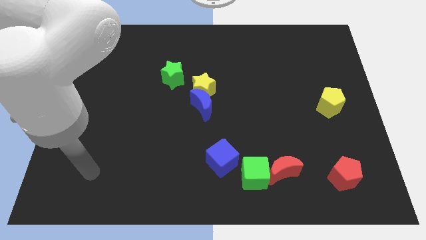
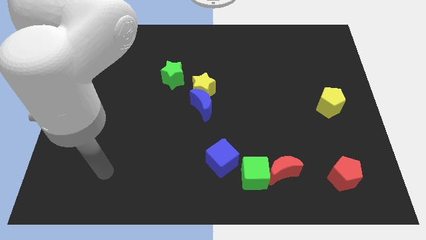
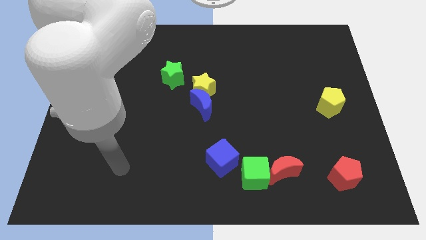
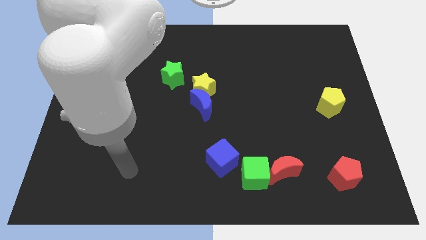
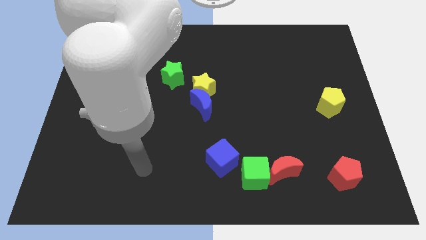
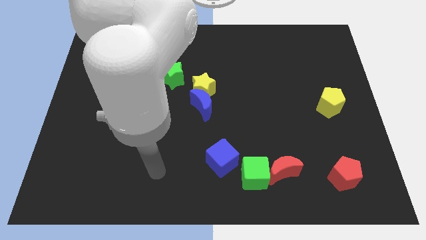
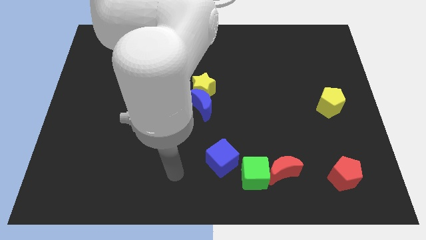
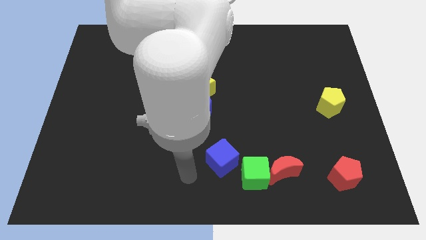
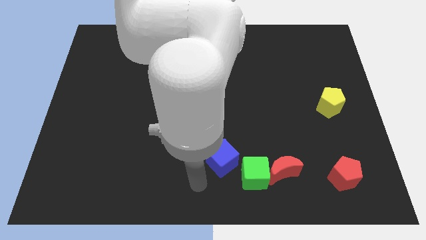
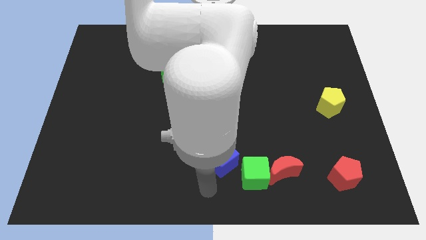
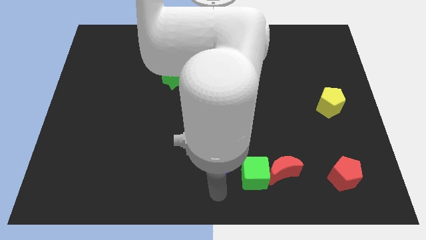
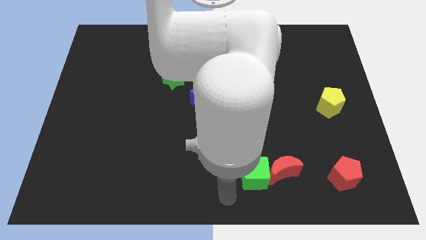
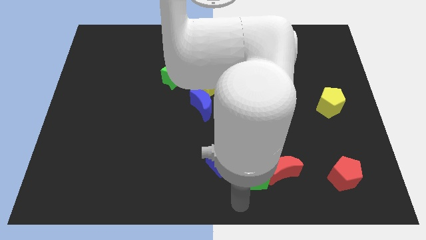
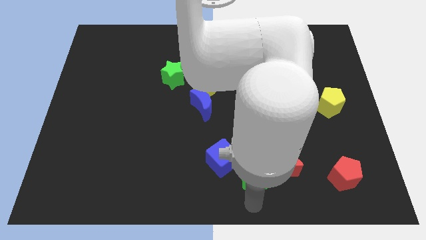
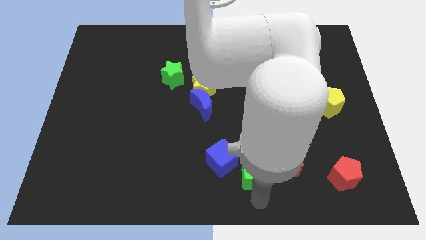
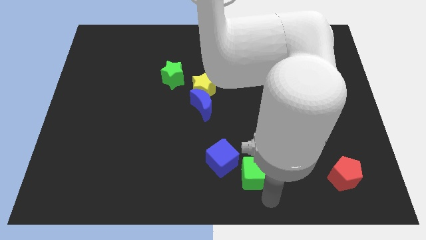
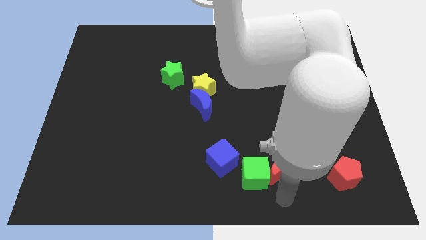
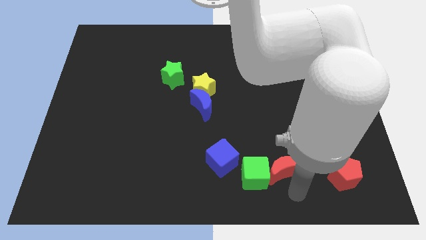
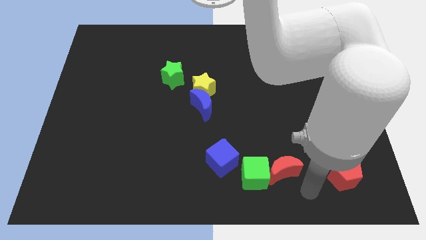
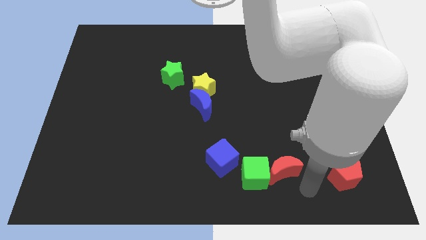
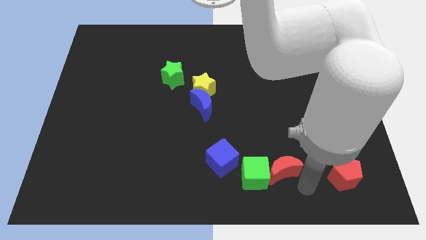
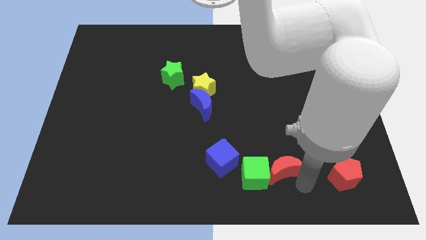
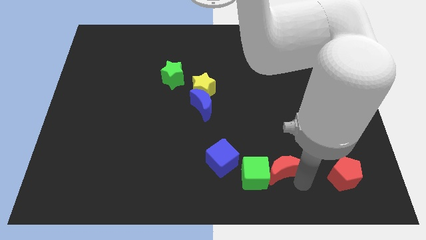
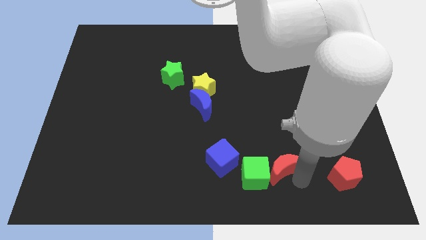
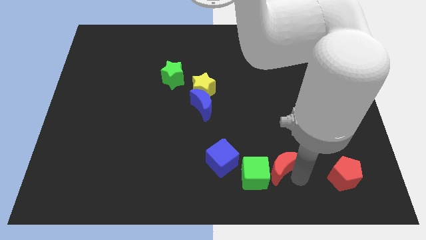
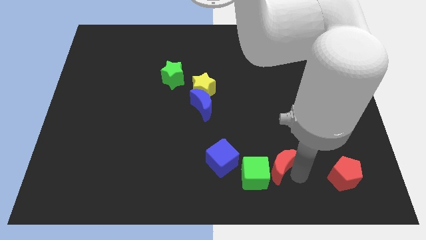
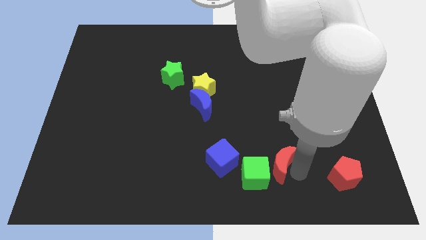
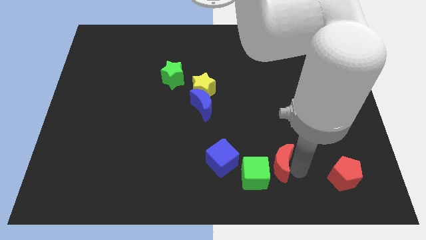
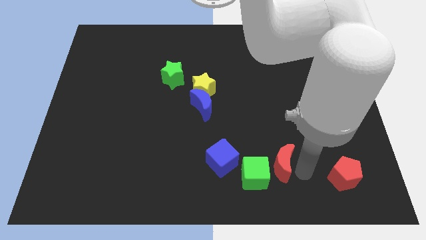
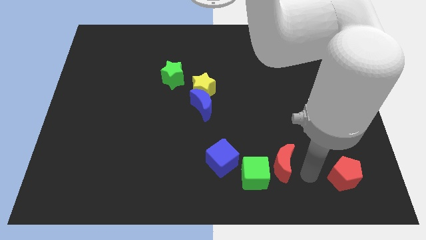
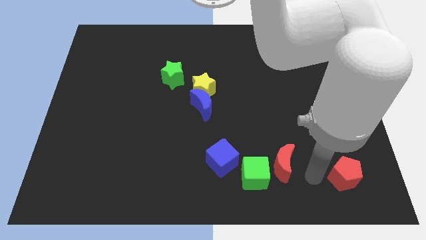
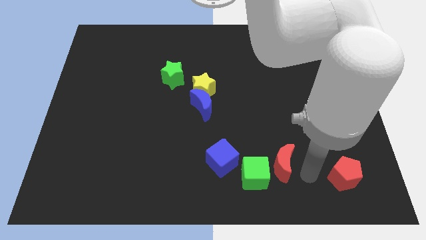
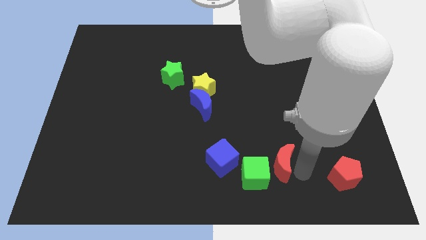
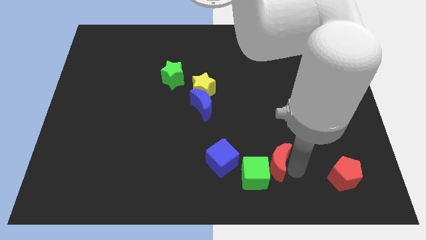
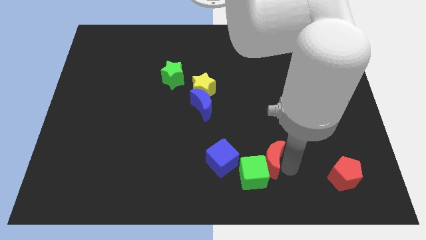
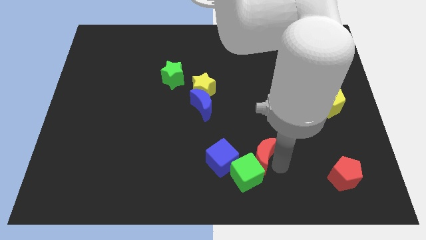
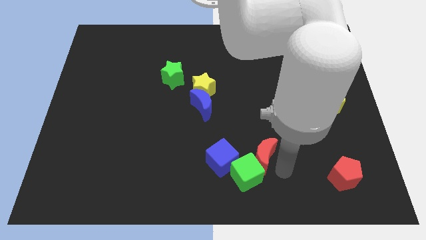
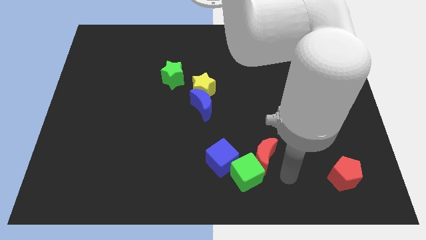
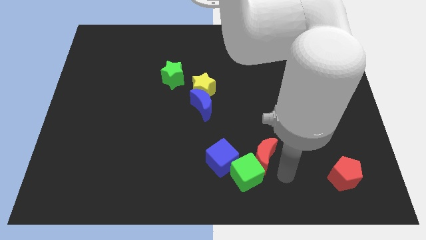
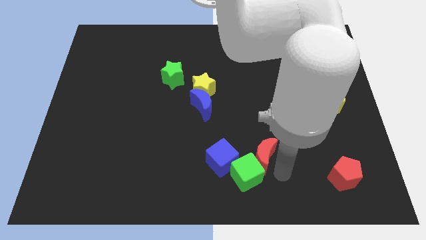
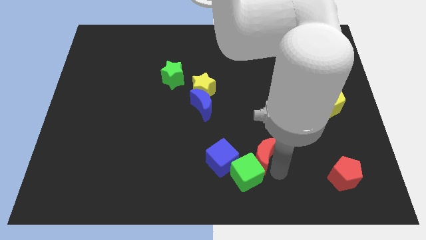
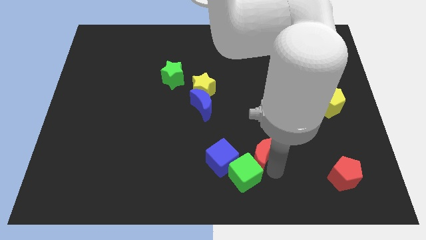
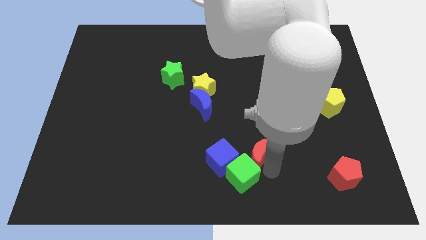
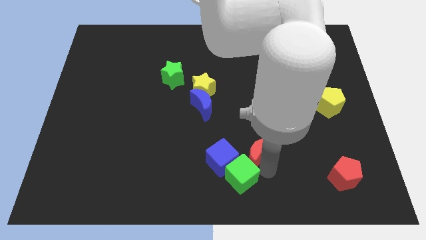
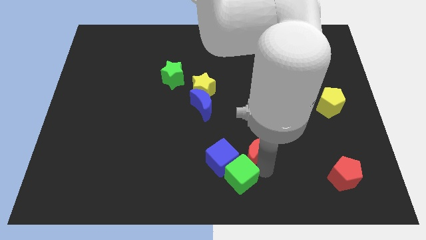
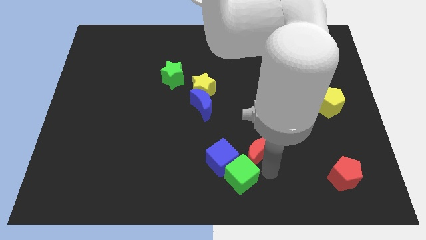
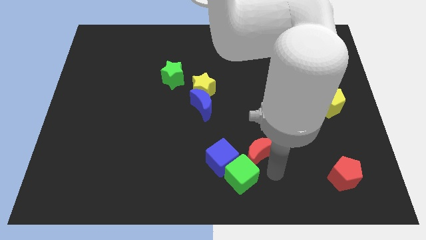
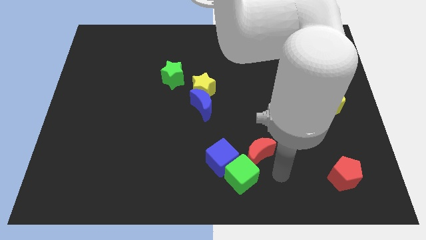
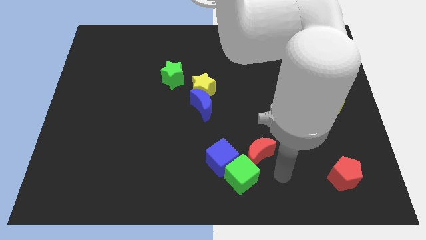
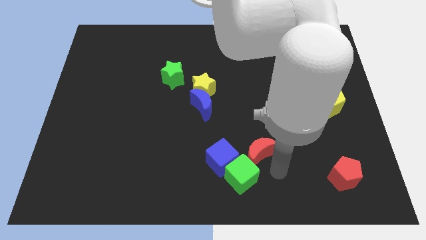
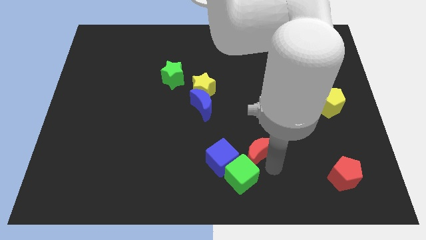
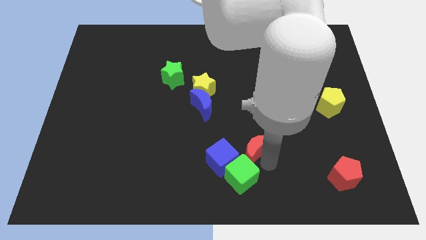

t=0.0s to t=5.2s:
slide the red moon a little bit upwards and left

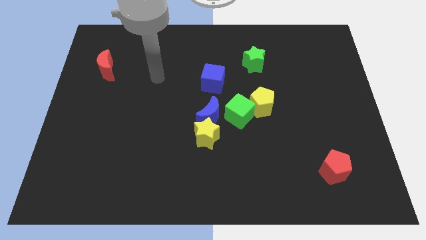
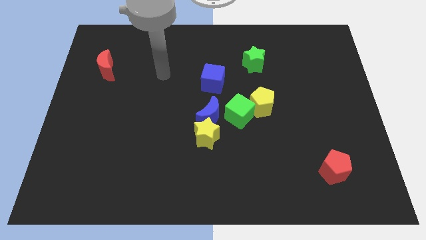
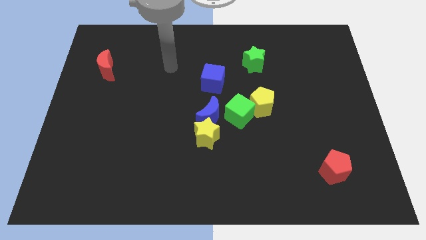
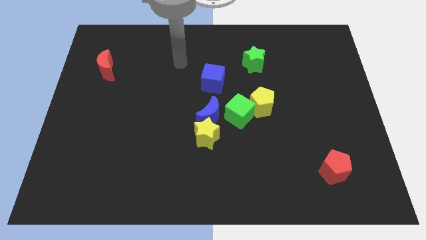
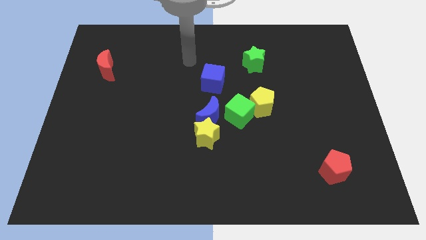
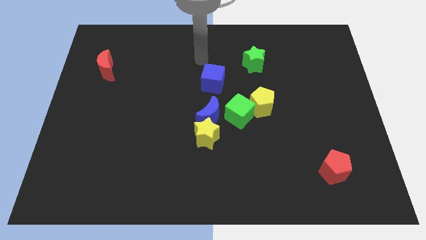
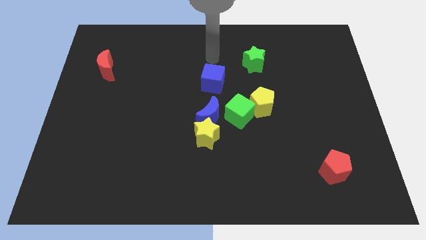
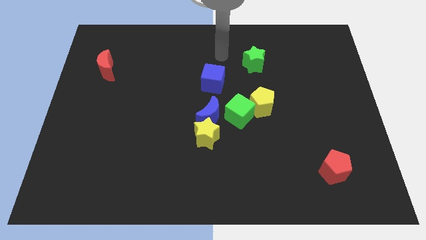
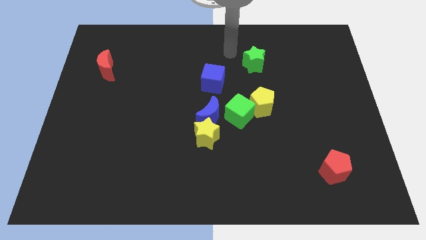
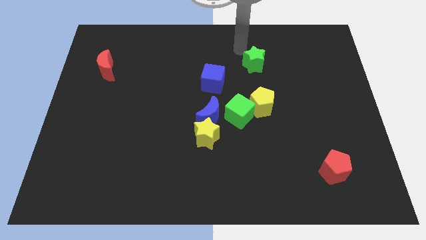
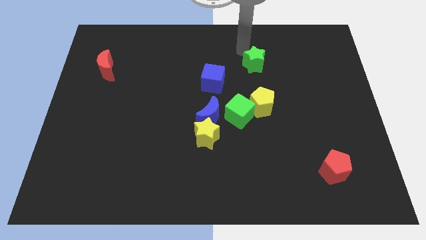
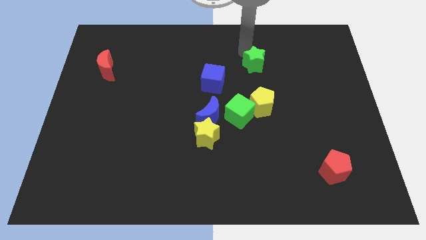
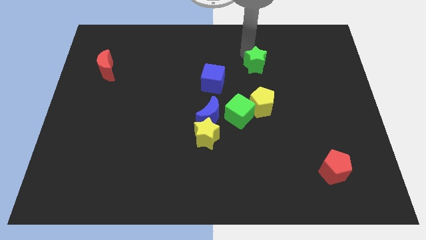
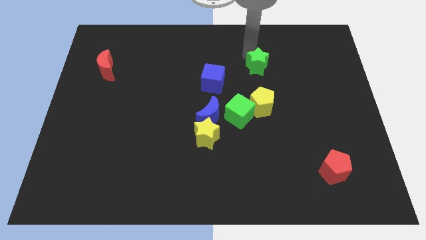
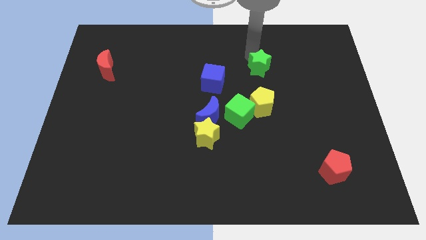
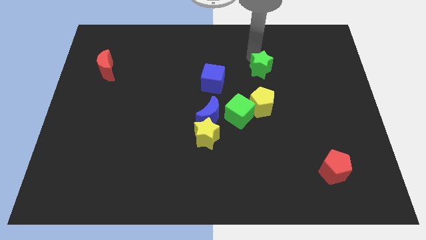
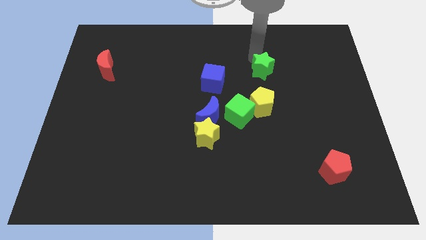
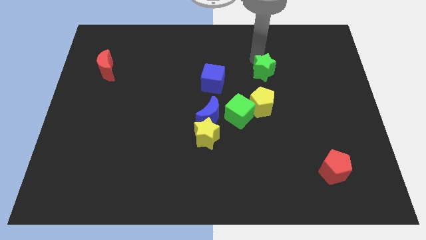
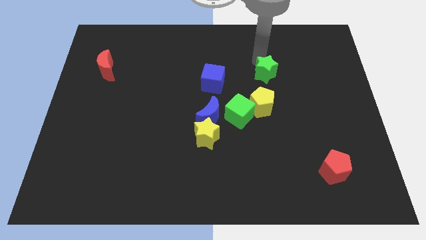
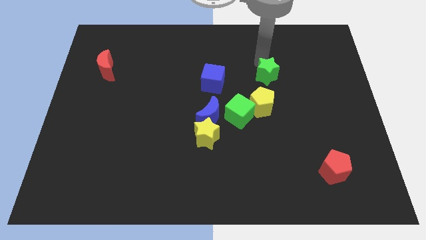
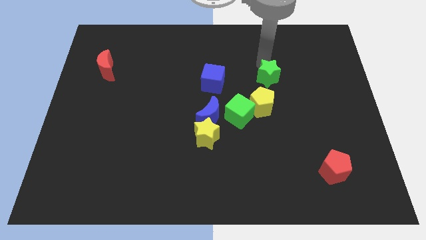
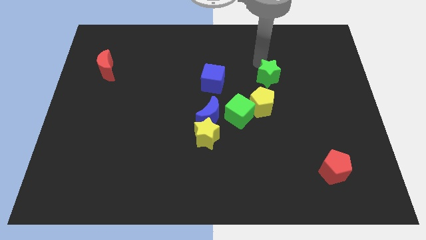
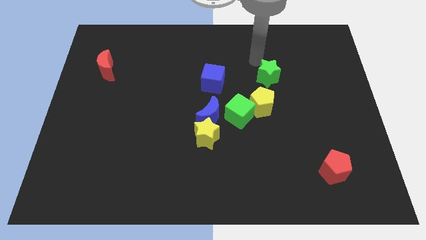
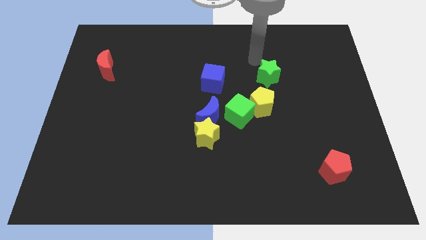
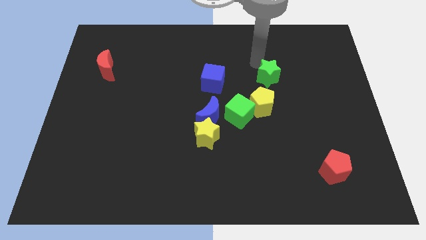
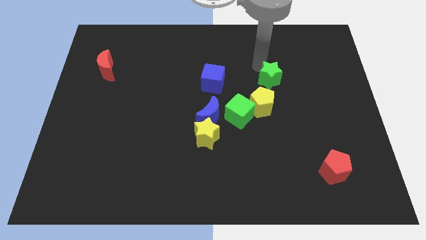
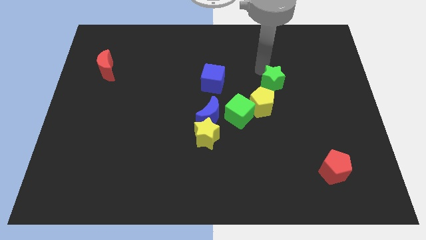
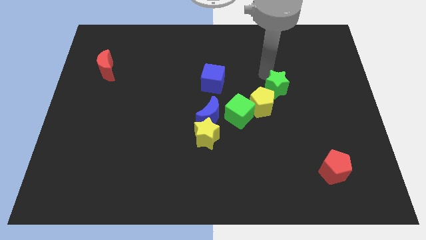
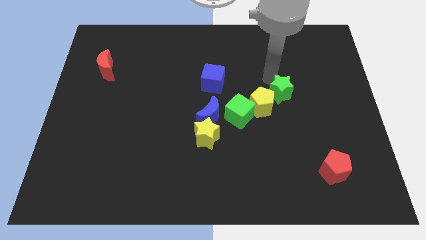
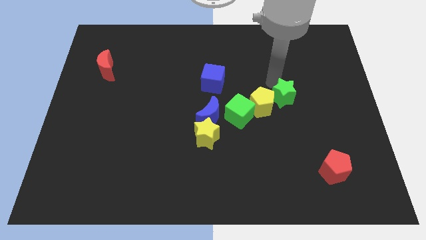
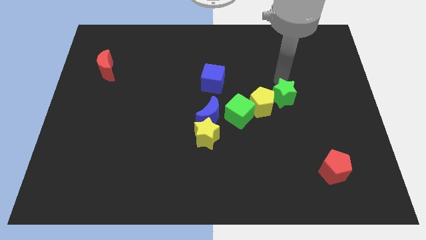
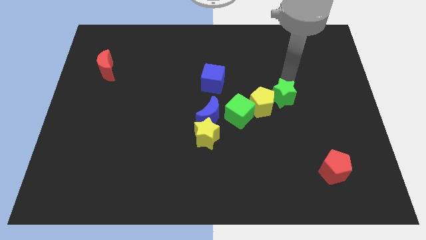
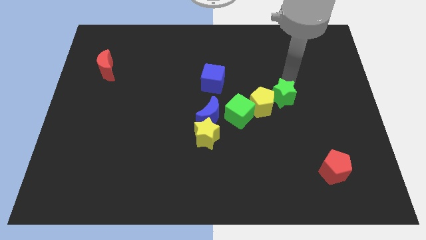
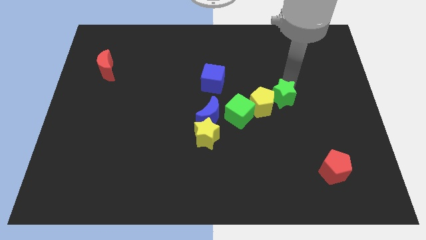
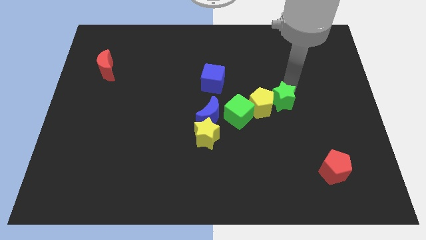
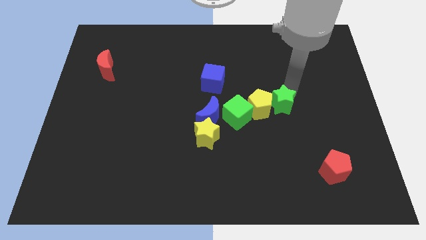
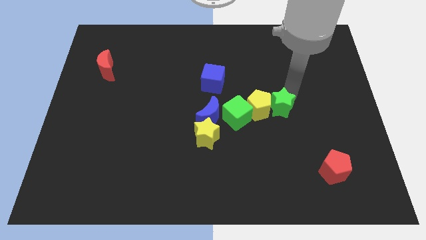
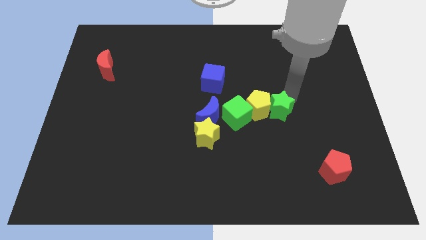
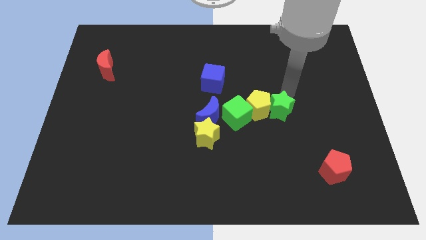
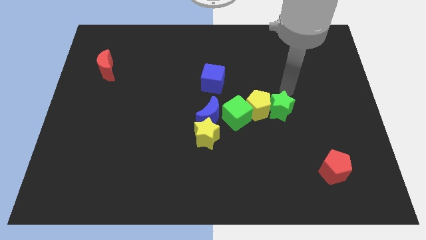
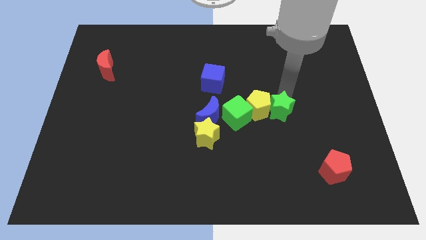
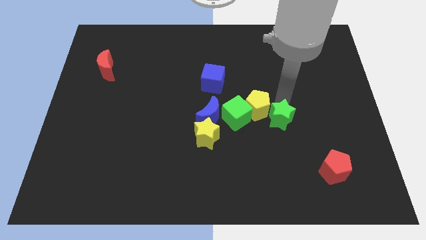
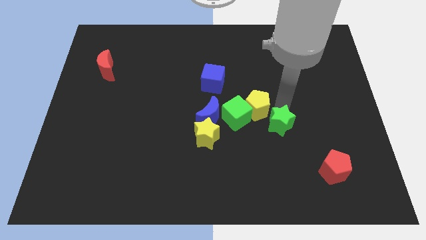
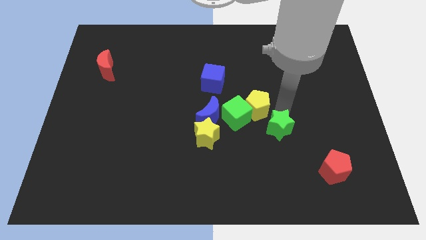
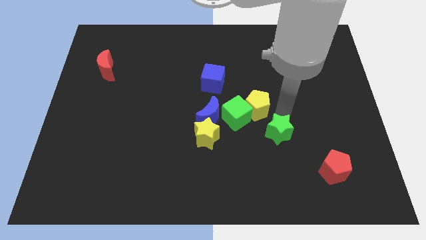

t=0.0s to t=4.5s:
slide the green star downwards
